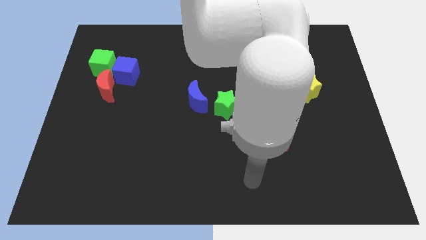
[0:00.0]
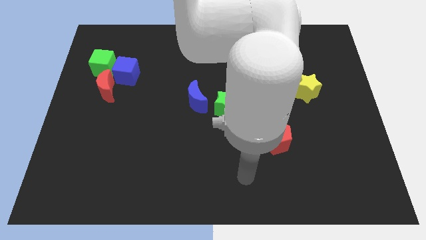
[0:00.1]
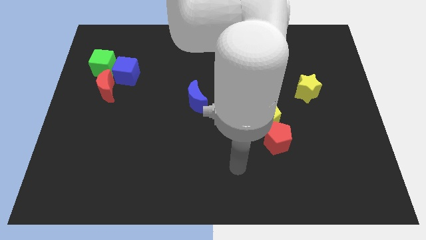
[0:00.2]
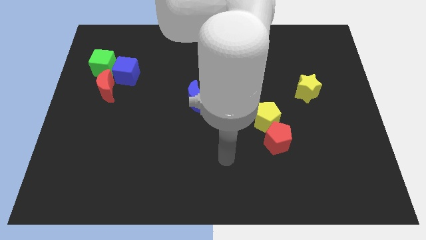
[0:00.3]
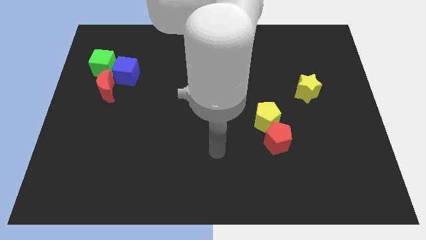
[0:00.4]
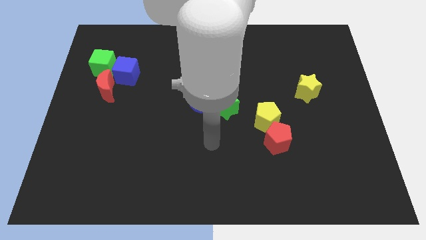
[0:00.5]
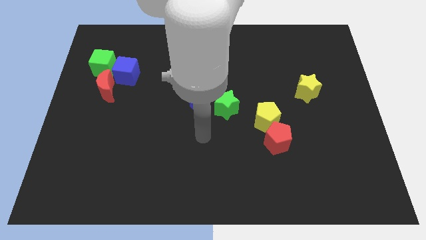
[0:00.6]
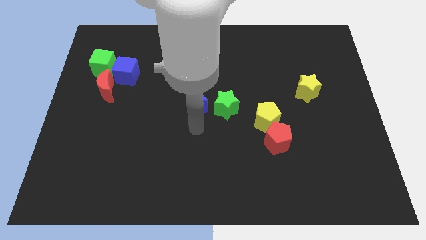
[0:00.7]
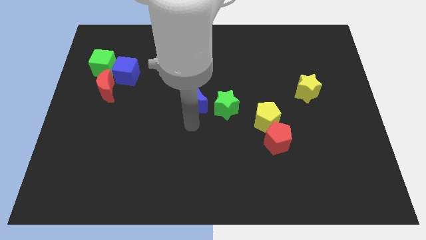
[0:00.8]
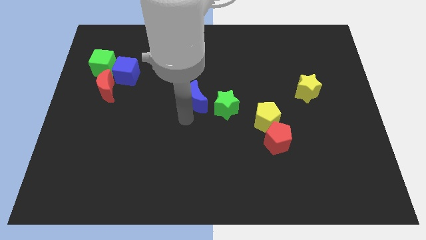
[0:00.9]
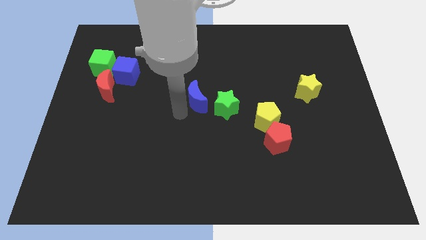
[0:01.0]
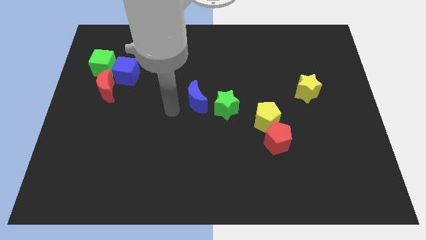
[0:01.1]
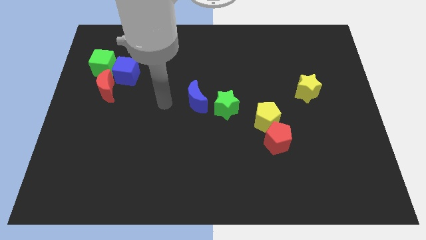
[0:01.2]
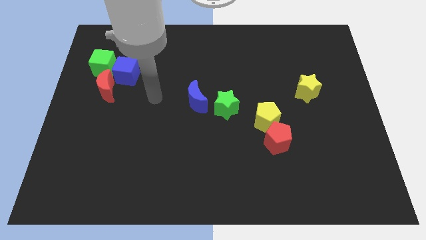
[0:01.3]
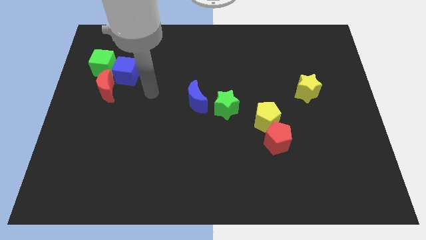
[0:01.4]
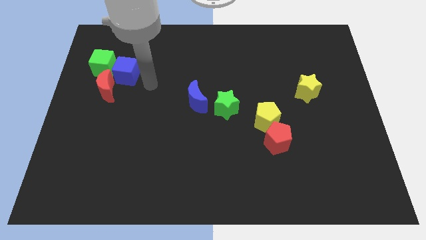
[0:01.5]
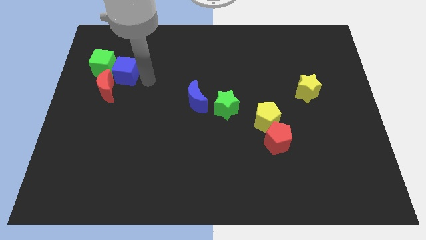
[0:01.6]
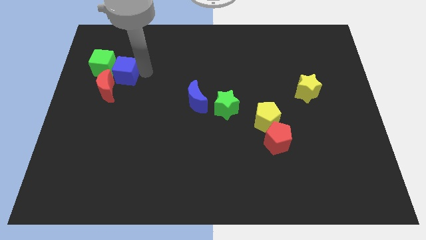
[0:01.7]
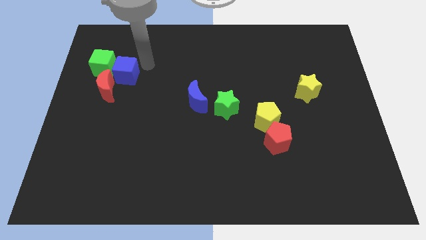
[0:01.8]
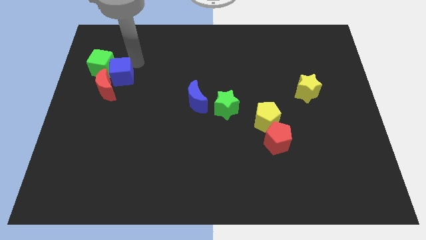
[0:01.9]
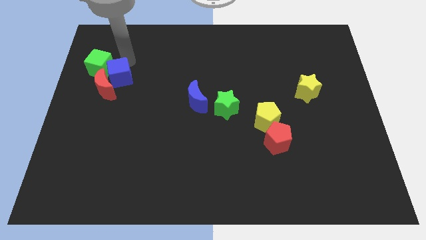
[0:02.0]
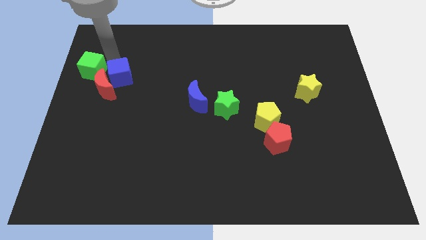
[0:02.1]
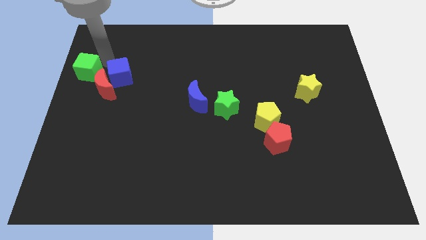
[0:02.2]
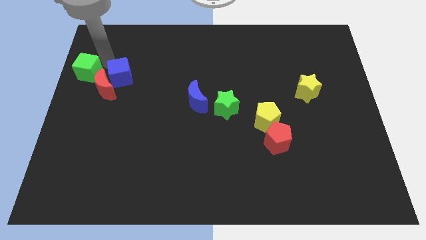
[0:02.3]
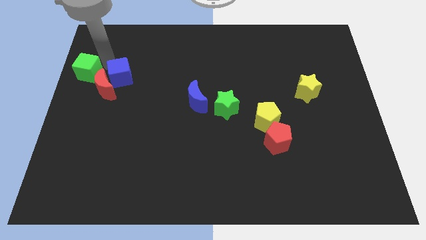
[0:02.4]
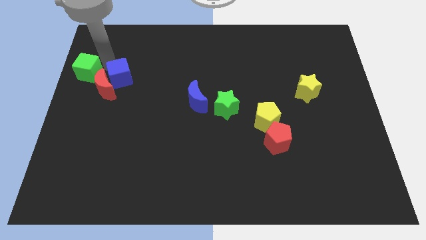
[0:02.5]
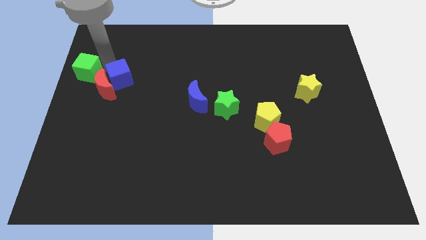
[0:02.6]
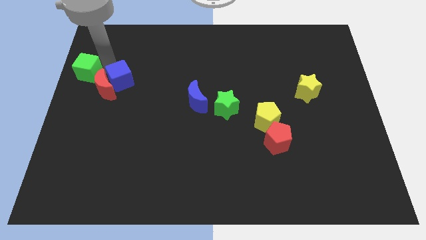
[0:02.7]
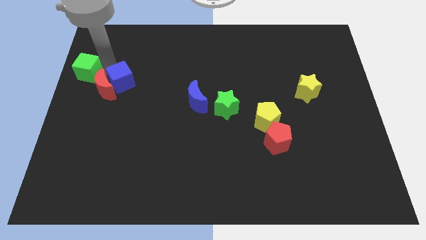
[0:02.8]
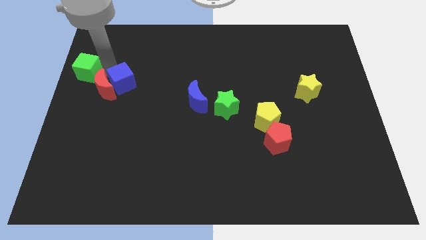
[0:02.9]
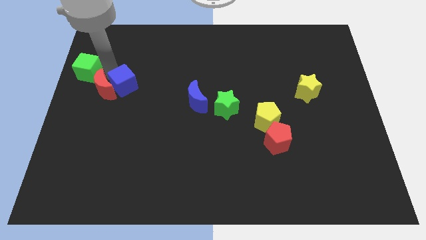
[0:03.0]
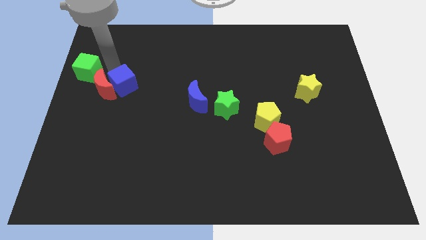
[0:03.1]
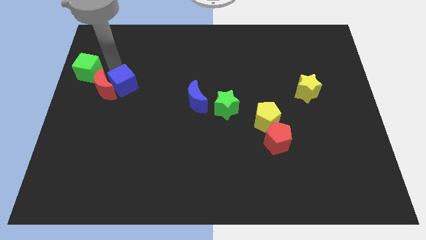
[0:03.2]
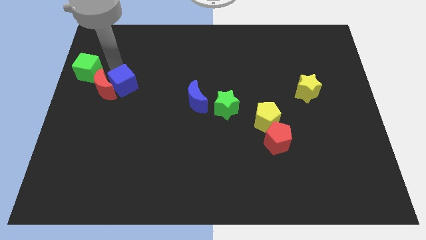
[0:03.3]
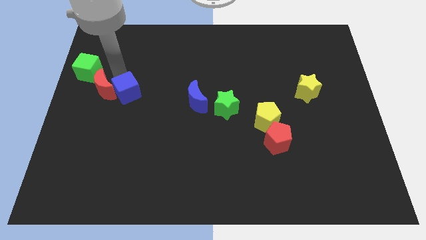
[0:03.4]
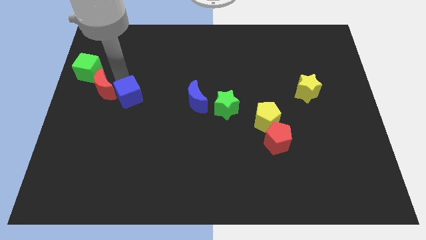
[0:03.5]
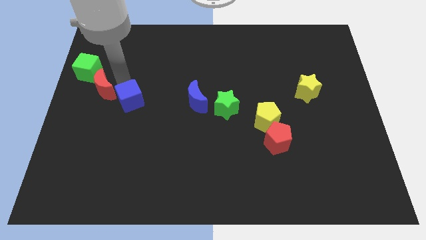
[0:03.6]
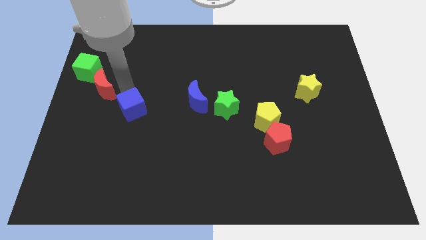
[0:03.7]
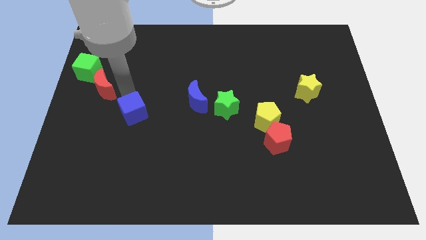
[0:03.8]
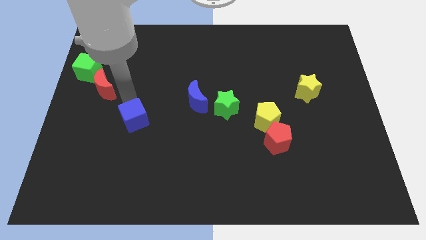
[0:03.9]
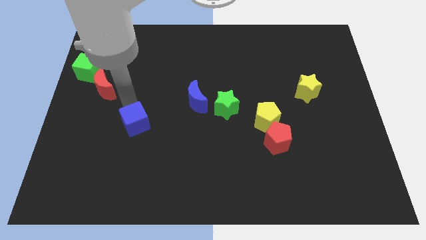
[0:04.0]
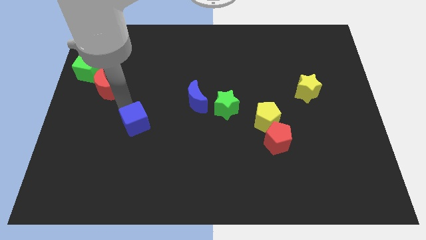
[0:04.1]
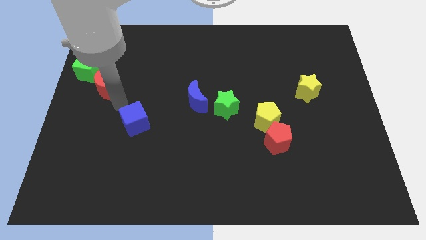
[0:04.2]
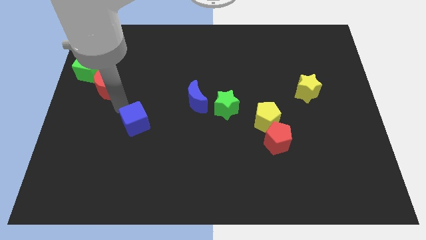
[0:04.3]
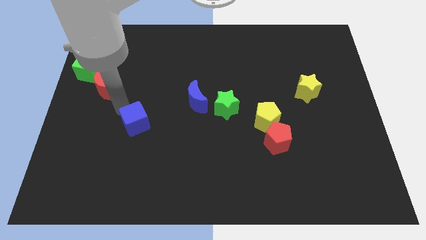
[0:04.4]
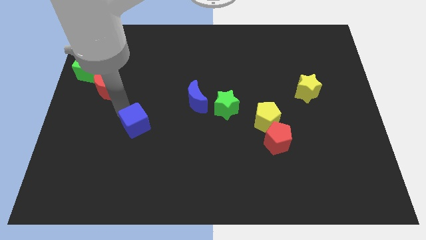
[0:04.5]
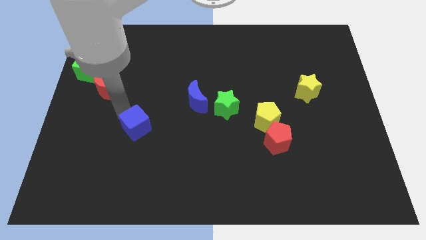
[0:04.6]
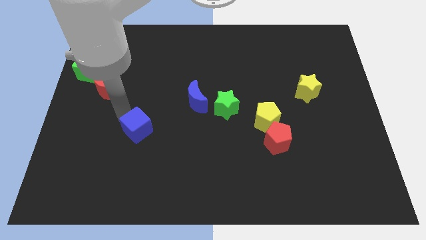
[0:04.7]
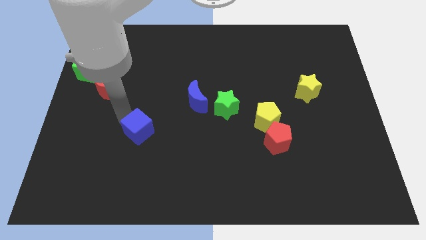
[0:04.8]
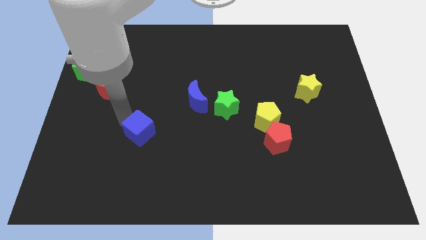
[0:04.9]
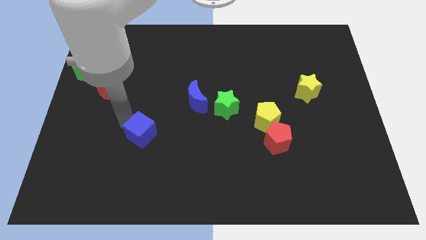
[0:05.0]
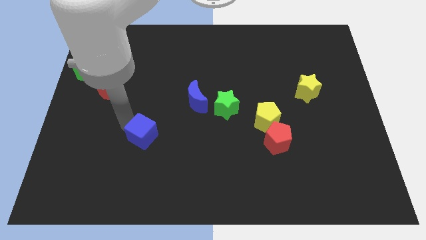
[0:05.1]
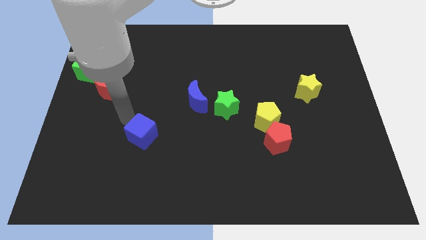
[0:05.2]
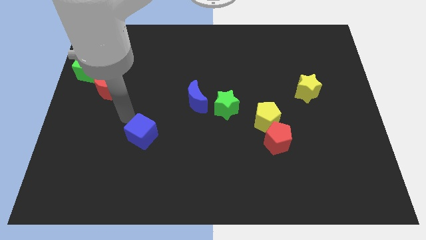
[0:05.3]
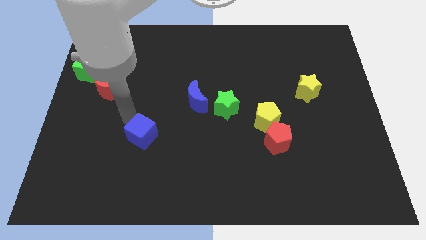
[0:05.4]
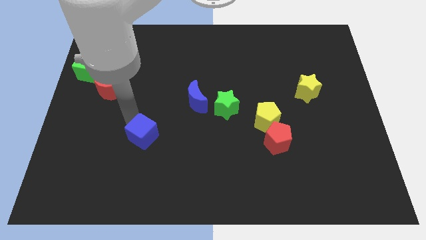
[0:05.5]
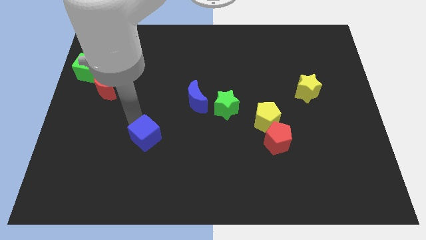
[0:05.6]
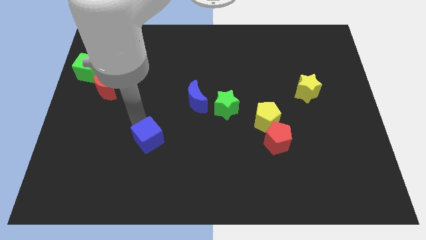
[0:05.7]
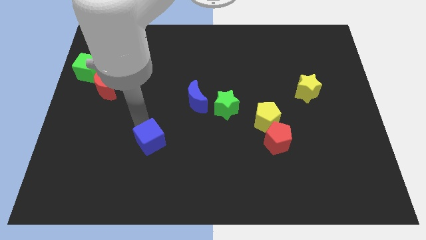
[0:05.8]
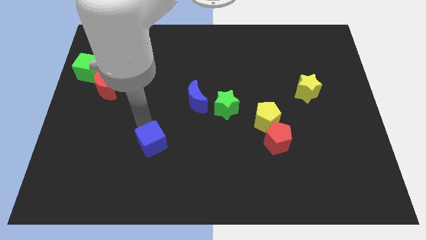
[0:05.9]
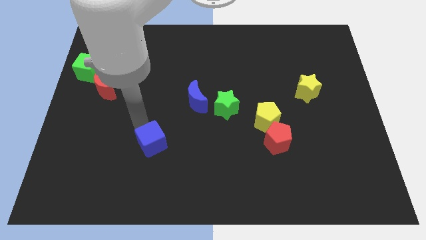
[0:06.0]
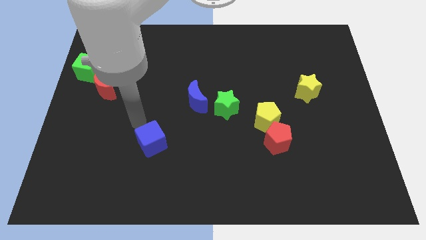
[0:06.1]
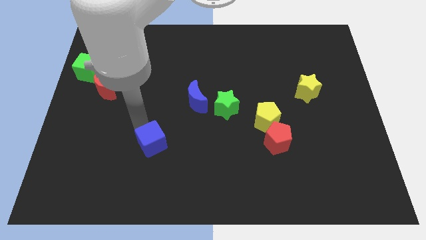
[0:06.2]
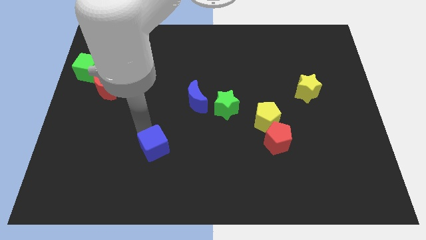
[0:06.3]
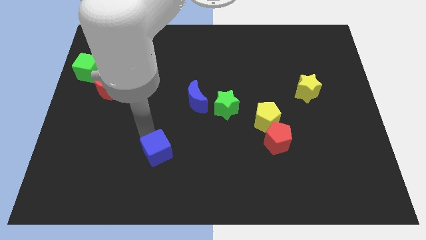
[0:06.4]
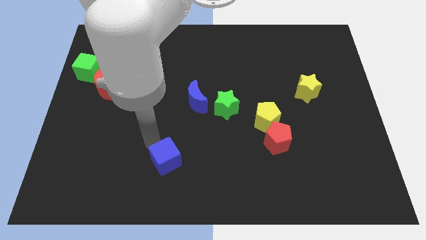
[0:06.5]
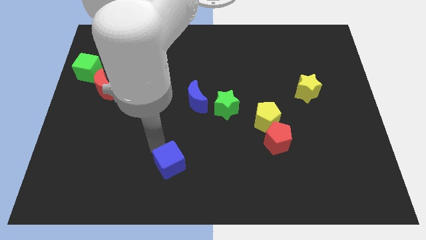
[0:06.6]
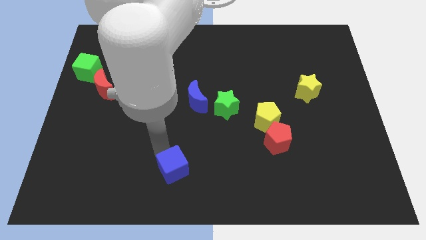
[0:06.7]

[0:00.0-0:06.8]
move the blue cube to the bottom

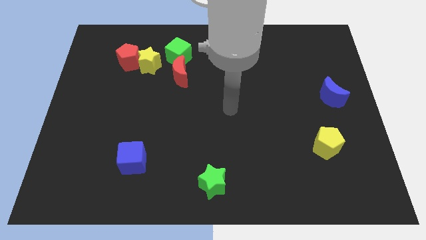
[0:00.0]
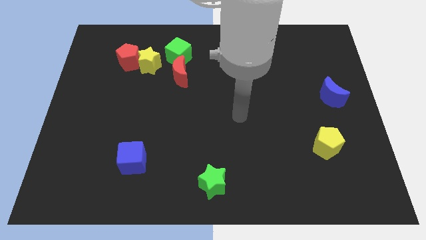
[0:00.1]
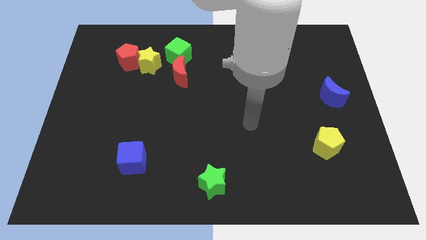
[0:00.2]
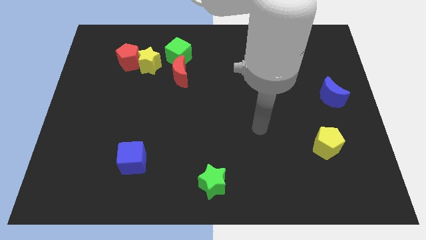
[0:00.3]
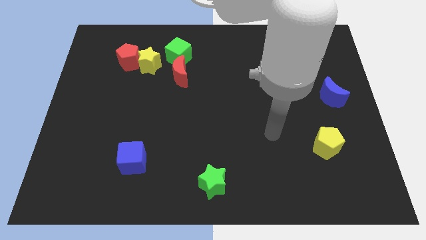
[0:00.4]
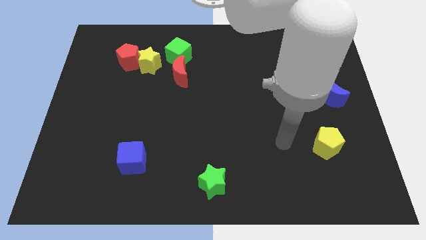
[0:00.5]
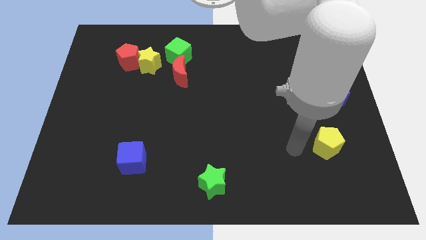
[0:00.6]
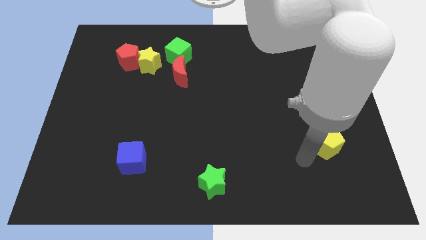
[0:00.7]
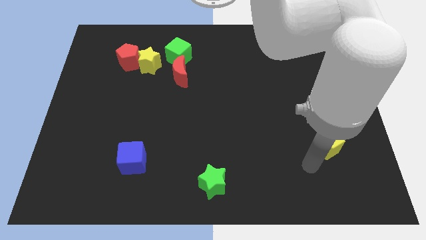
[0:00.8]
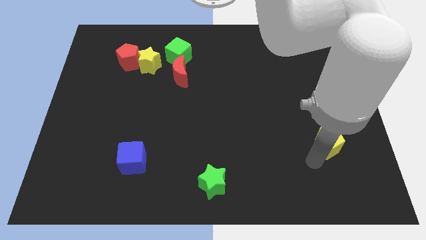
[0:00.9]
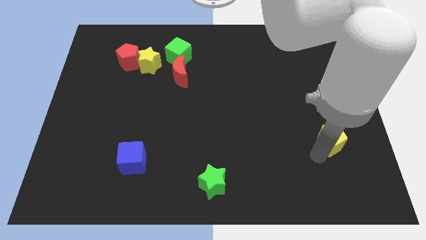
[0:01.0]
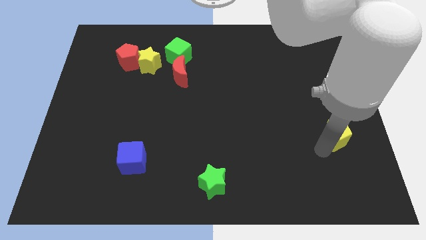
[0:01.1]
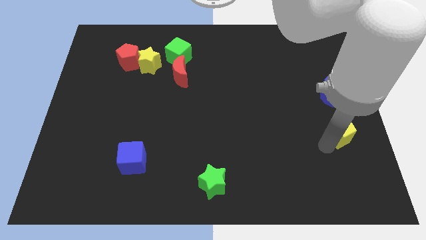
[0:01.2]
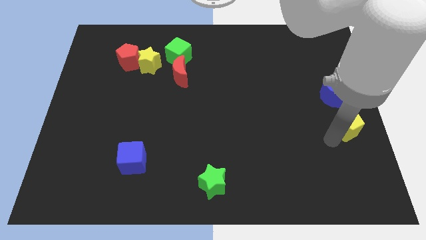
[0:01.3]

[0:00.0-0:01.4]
push the yellow pentagon to the right side of the board
